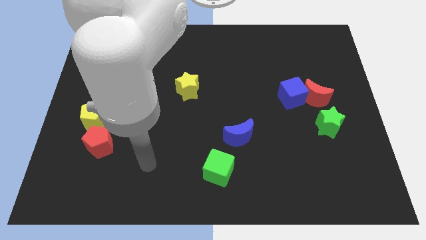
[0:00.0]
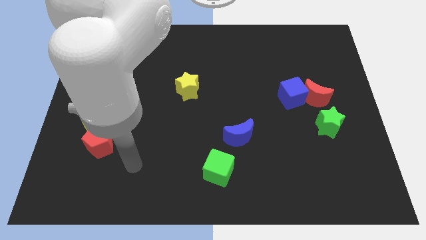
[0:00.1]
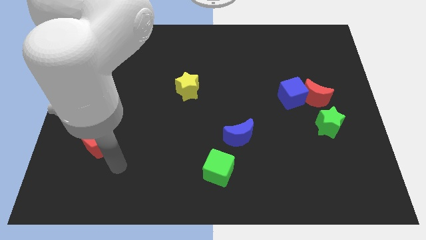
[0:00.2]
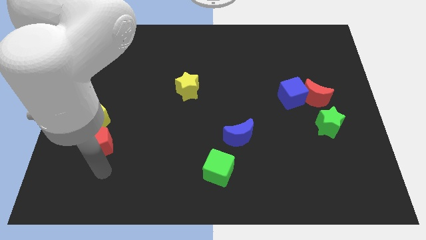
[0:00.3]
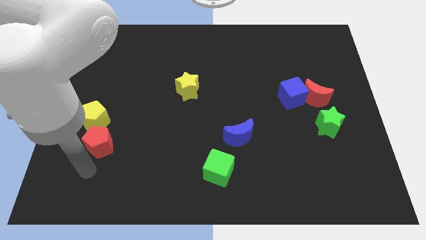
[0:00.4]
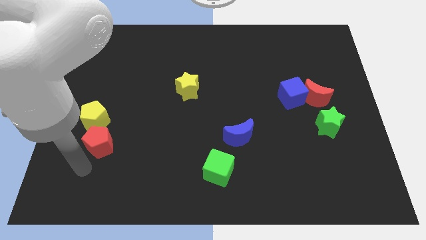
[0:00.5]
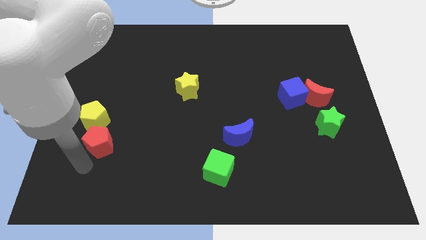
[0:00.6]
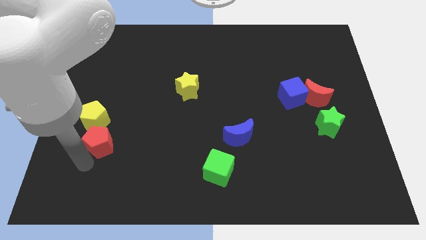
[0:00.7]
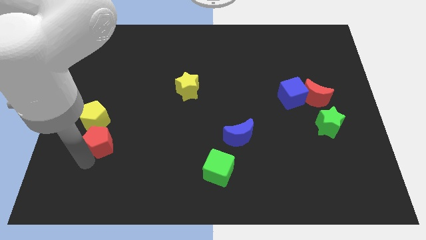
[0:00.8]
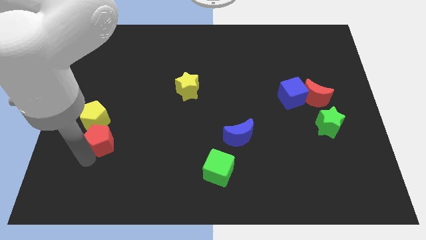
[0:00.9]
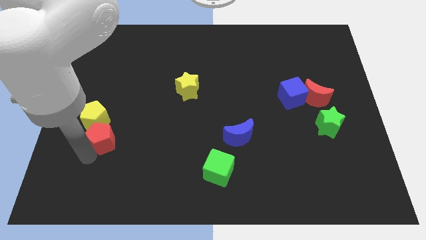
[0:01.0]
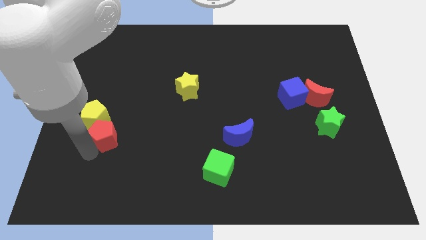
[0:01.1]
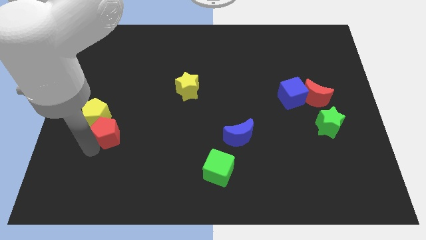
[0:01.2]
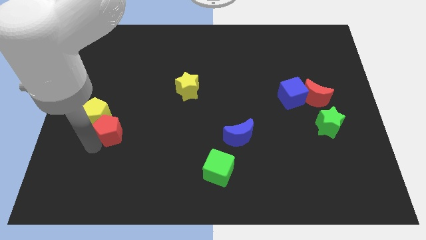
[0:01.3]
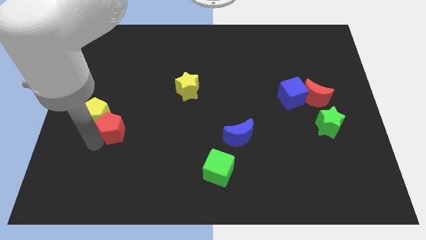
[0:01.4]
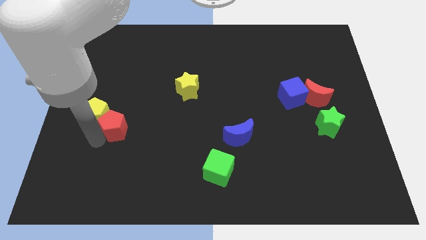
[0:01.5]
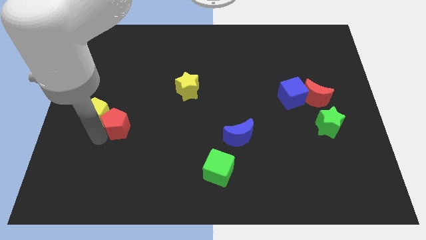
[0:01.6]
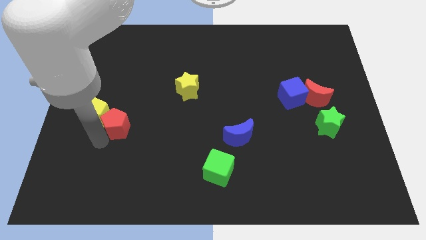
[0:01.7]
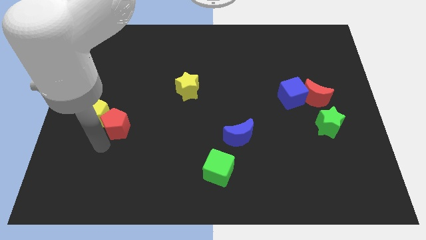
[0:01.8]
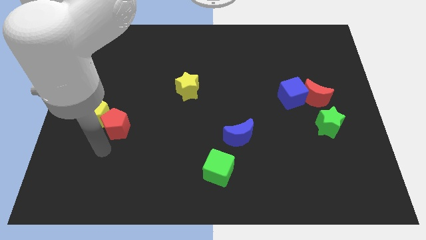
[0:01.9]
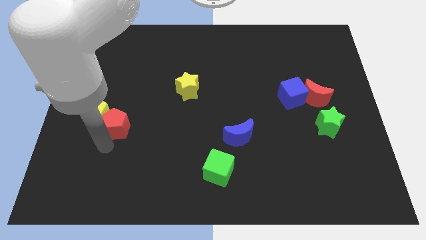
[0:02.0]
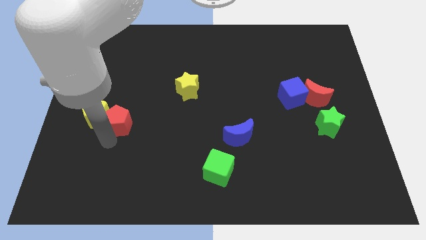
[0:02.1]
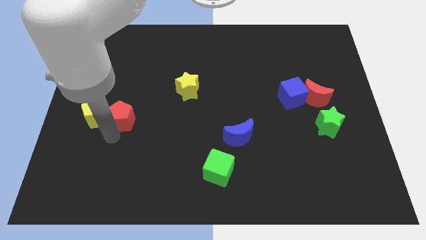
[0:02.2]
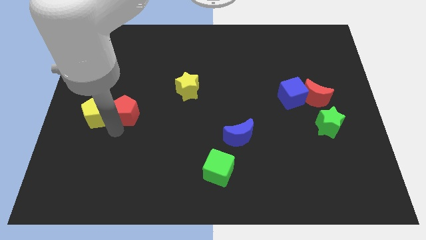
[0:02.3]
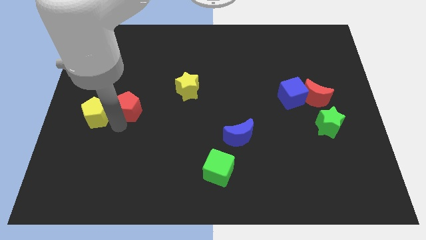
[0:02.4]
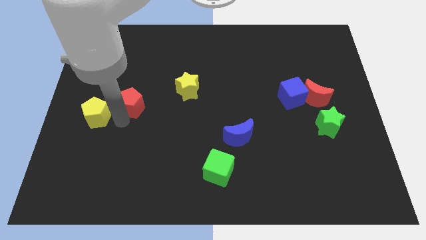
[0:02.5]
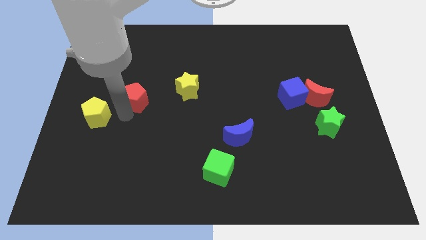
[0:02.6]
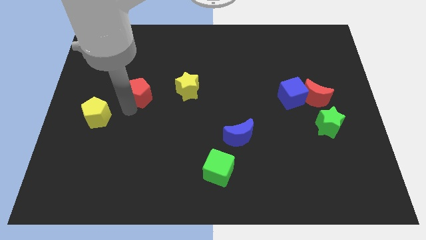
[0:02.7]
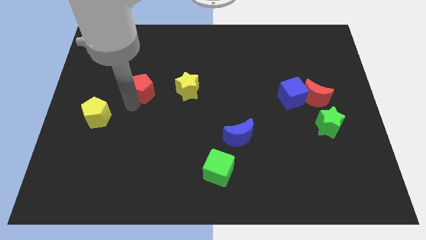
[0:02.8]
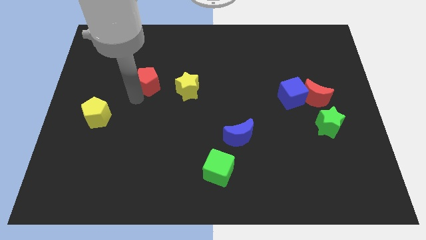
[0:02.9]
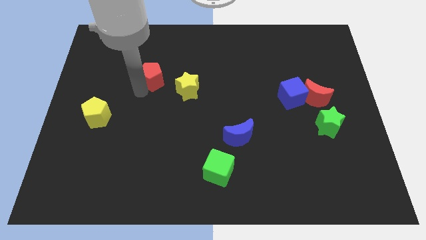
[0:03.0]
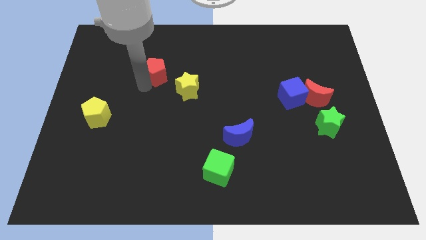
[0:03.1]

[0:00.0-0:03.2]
slide the red pentagon up and right

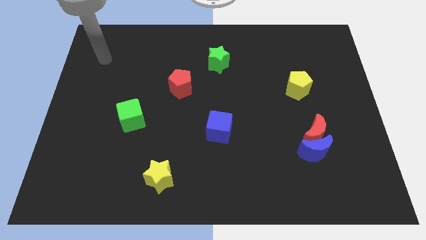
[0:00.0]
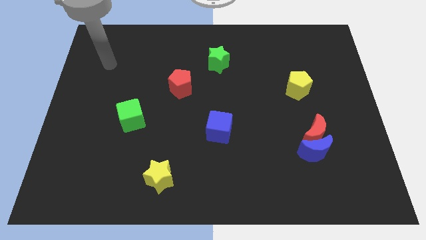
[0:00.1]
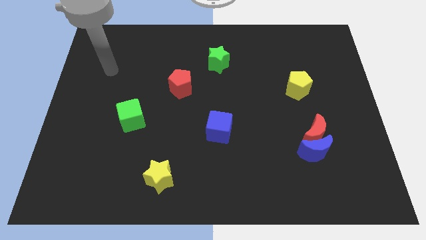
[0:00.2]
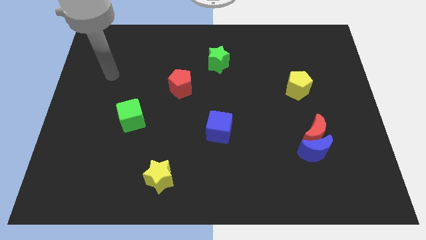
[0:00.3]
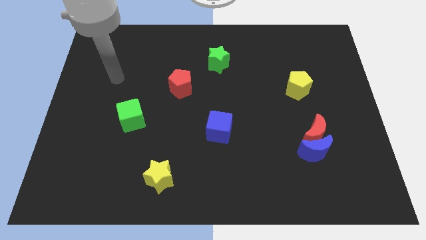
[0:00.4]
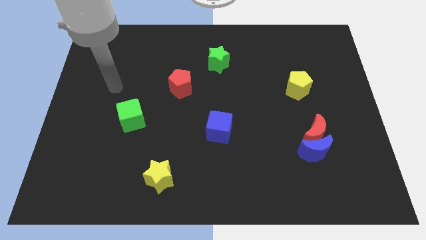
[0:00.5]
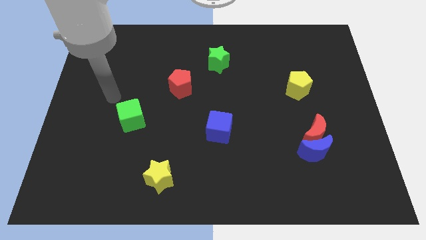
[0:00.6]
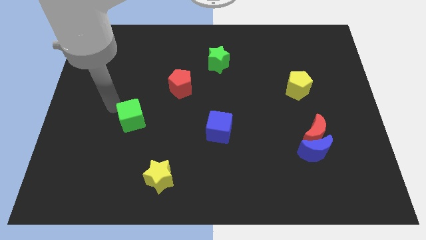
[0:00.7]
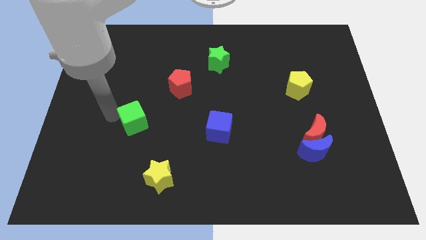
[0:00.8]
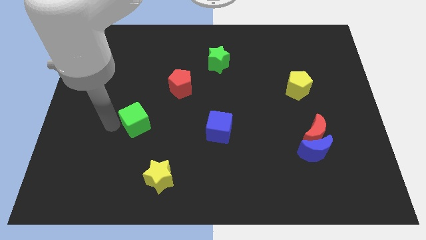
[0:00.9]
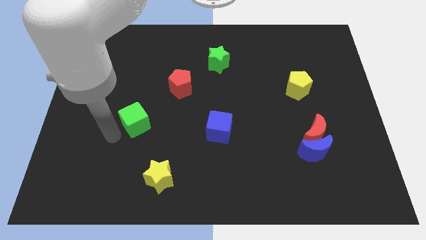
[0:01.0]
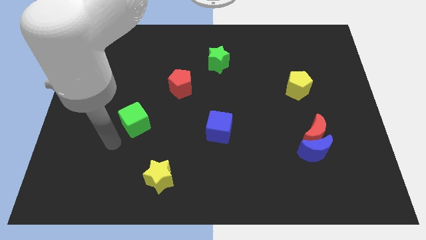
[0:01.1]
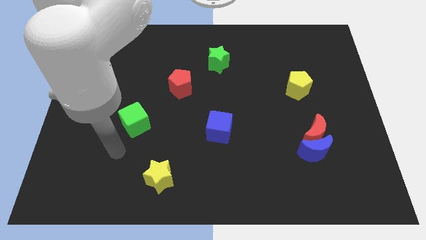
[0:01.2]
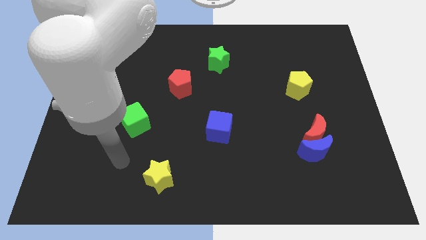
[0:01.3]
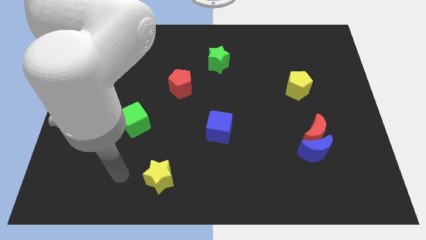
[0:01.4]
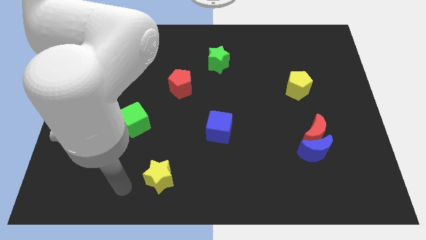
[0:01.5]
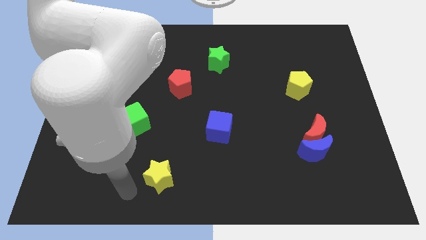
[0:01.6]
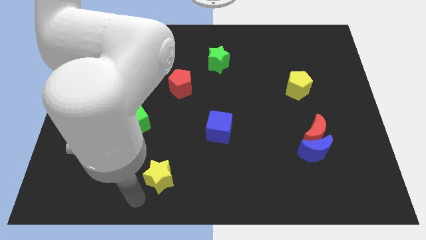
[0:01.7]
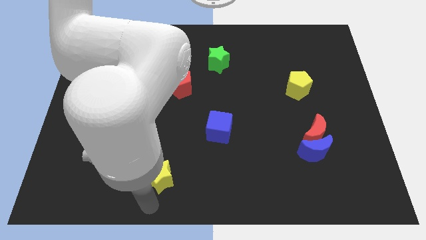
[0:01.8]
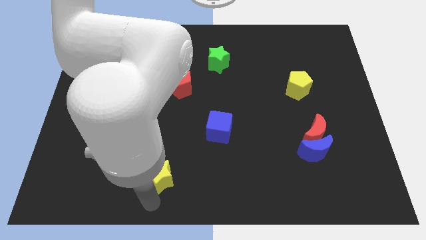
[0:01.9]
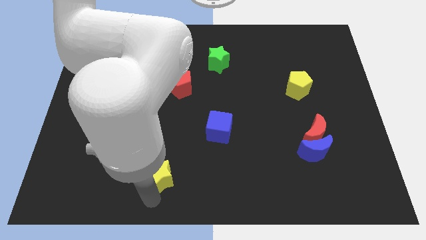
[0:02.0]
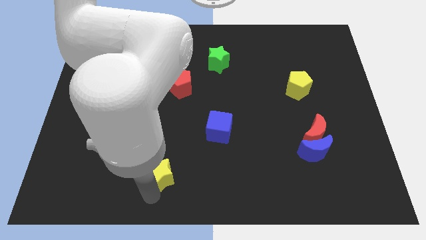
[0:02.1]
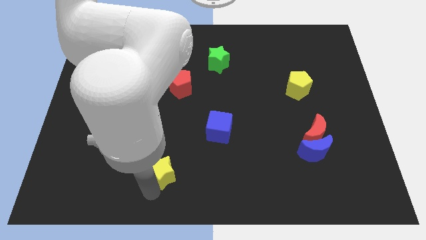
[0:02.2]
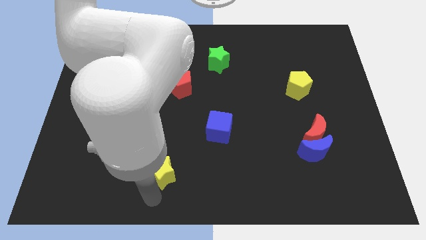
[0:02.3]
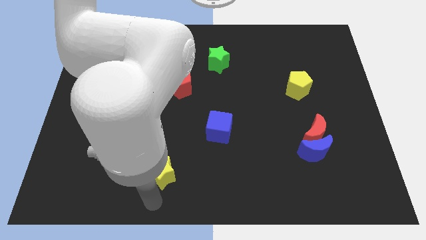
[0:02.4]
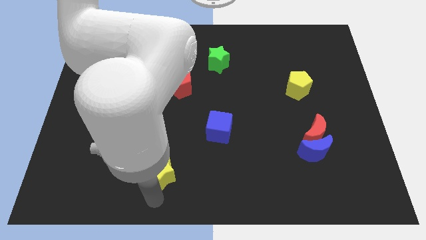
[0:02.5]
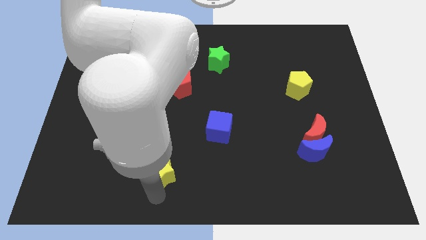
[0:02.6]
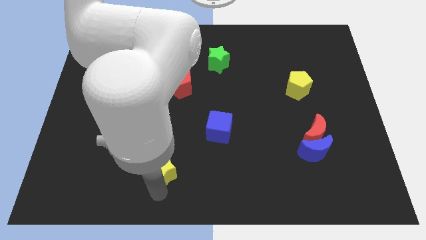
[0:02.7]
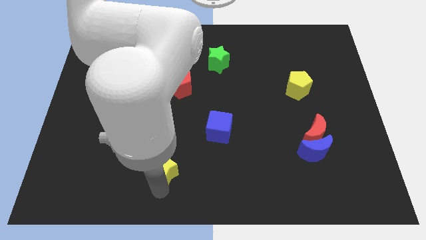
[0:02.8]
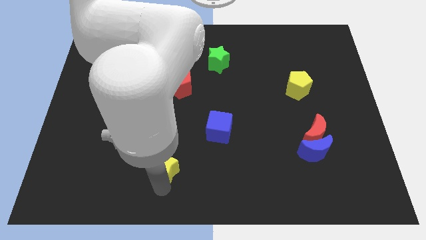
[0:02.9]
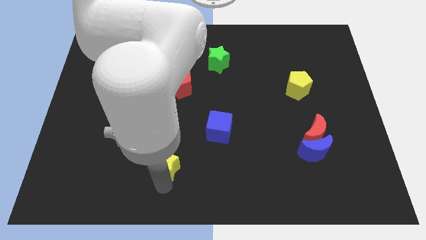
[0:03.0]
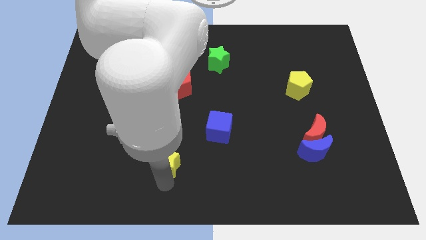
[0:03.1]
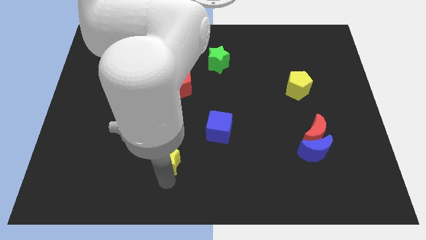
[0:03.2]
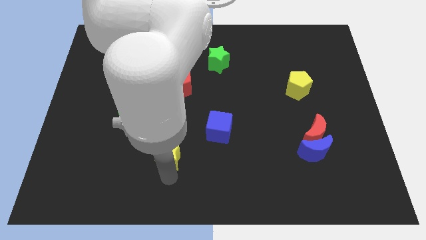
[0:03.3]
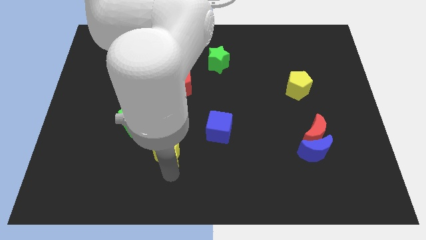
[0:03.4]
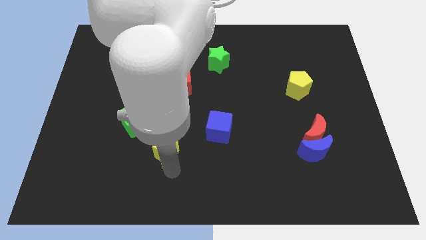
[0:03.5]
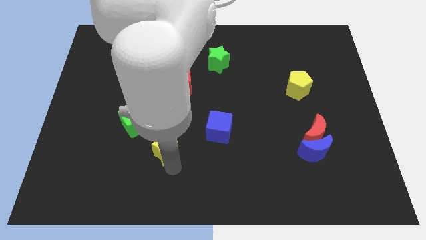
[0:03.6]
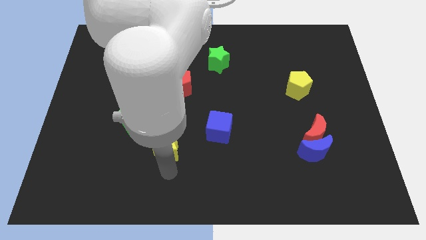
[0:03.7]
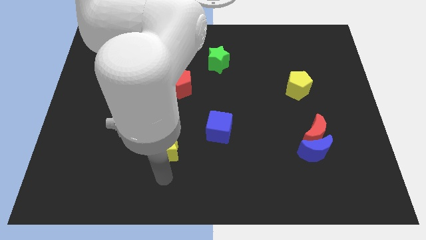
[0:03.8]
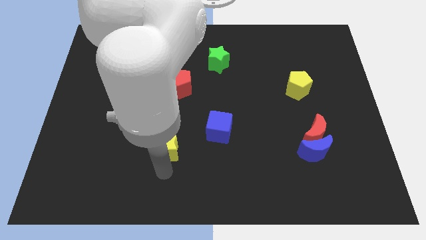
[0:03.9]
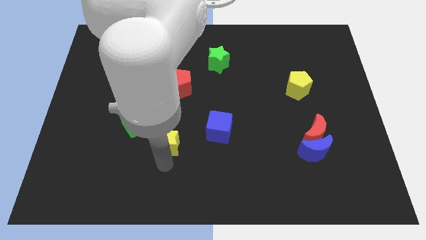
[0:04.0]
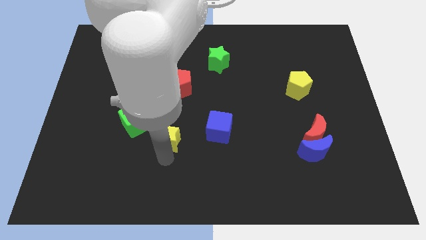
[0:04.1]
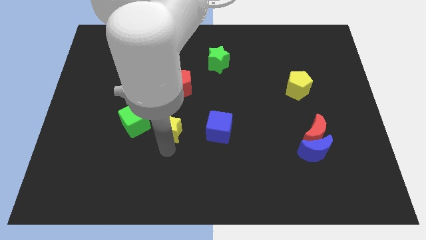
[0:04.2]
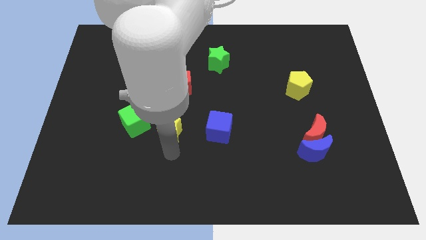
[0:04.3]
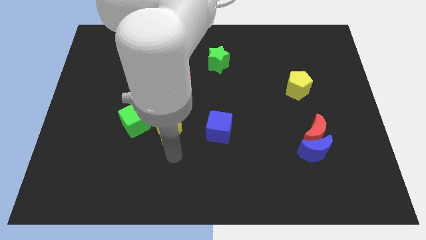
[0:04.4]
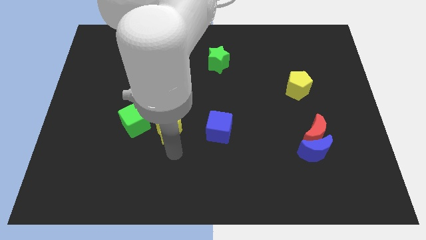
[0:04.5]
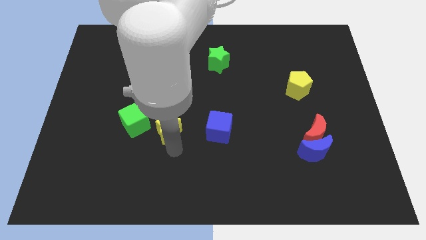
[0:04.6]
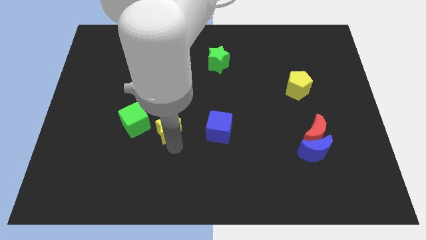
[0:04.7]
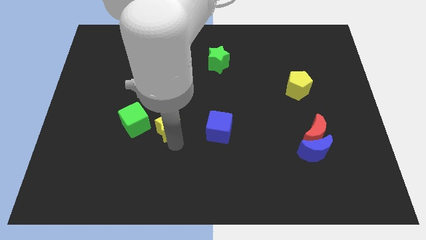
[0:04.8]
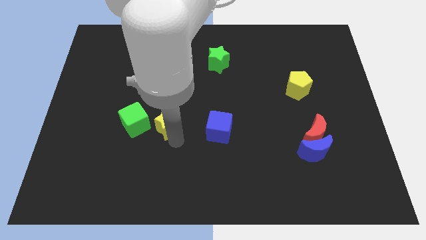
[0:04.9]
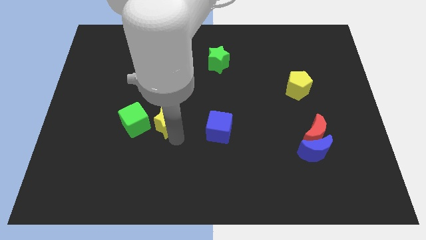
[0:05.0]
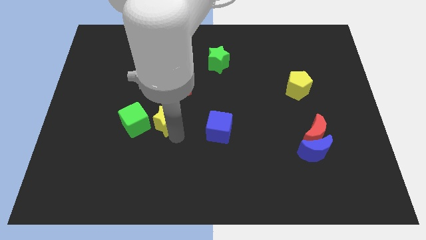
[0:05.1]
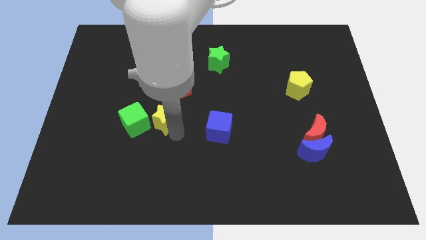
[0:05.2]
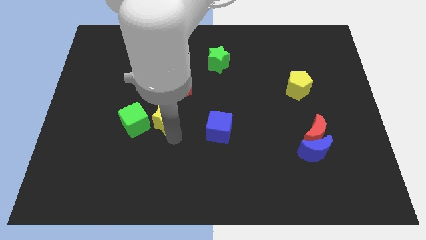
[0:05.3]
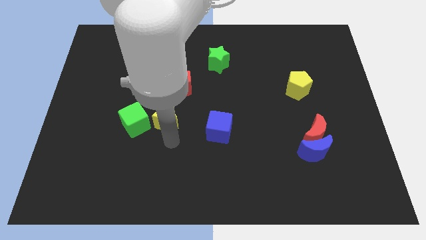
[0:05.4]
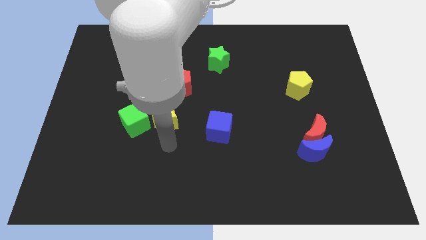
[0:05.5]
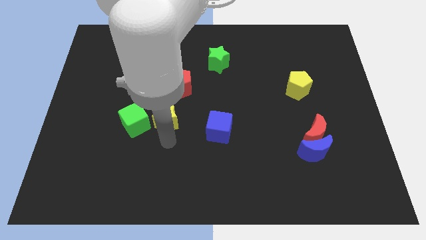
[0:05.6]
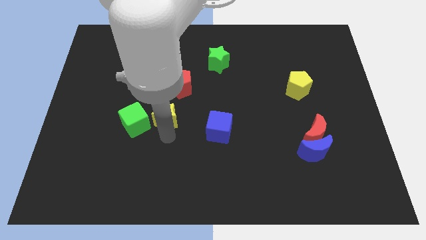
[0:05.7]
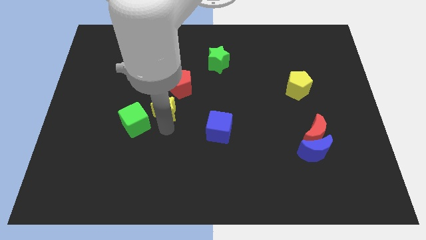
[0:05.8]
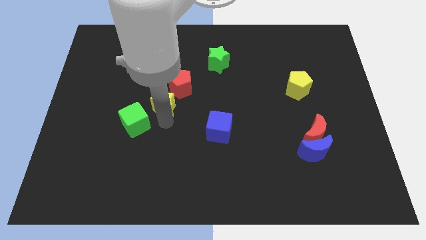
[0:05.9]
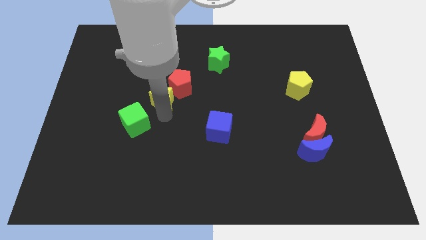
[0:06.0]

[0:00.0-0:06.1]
push the yellow star up
